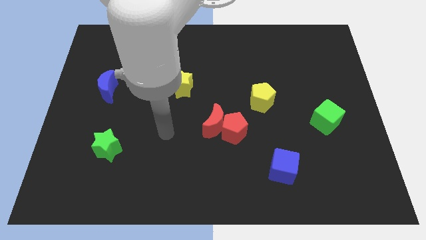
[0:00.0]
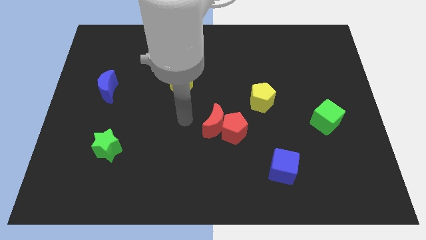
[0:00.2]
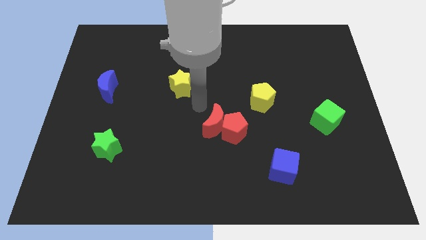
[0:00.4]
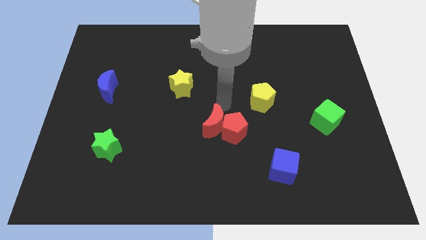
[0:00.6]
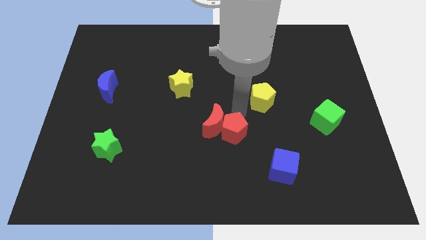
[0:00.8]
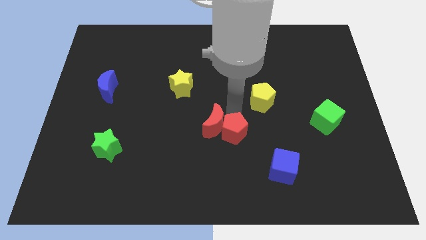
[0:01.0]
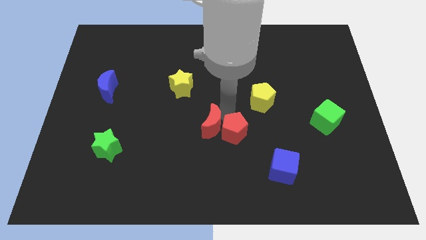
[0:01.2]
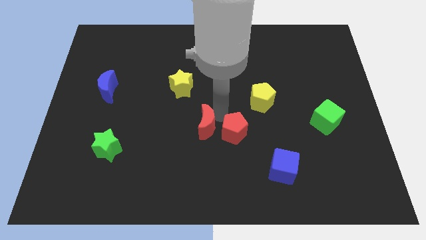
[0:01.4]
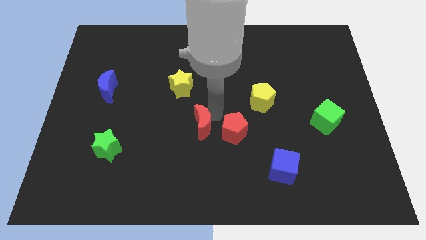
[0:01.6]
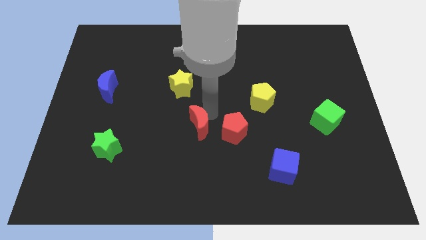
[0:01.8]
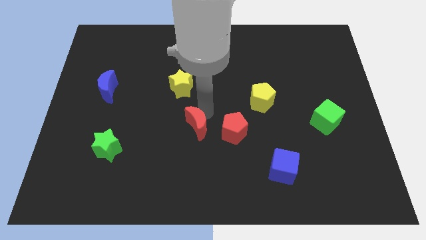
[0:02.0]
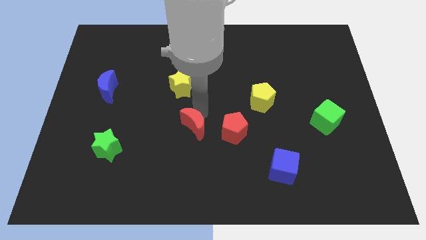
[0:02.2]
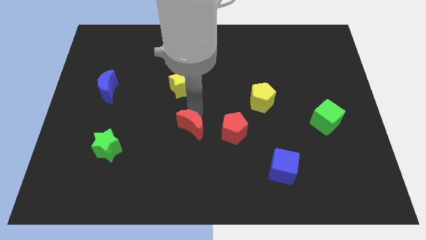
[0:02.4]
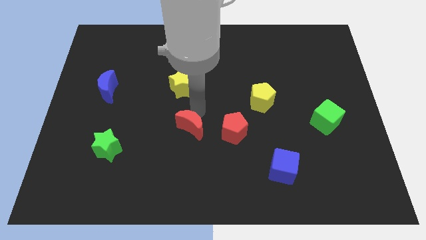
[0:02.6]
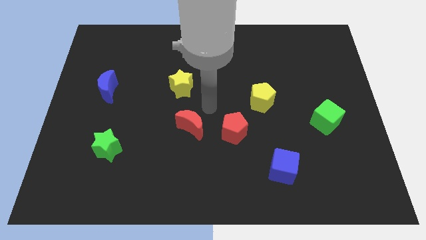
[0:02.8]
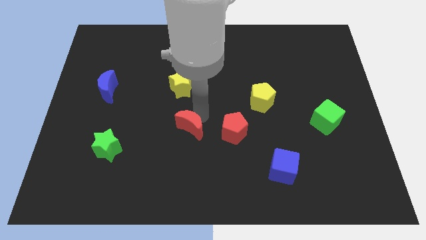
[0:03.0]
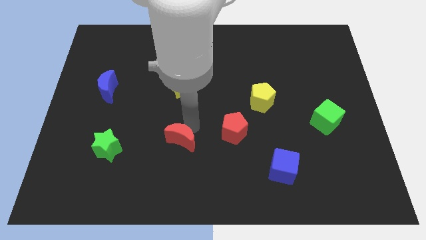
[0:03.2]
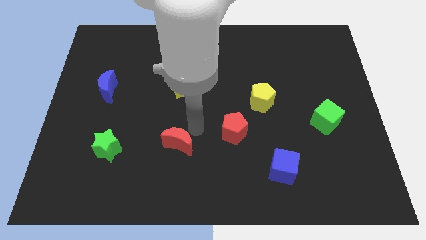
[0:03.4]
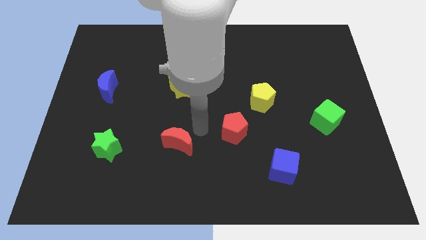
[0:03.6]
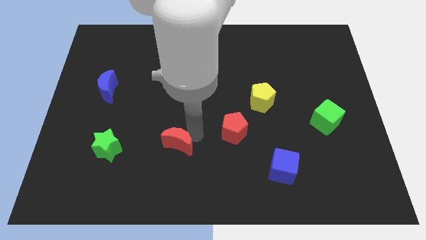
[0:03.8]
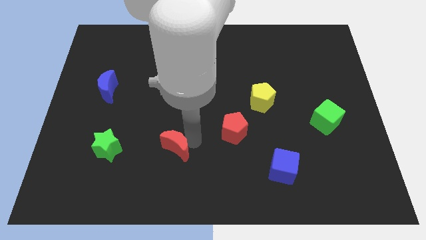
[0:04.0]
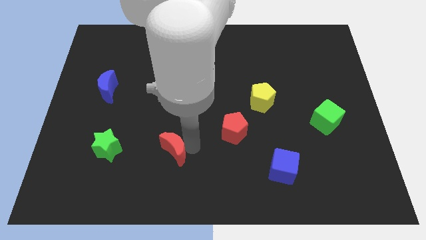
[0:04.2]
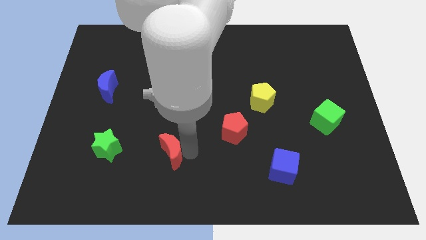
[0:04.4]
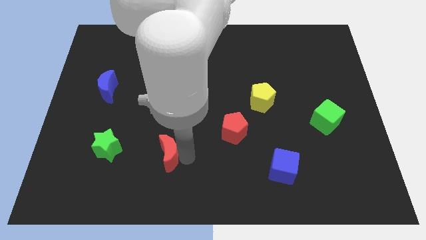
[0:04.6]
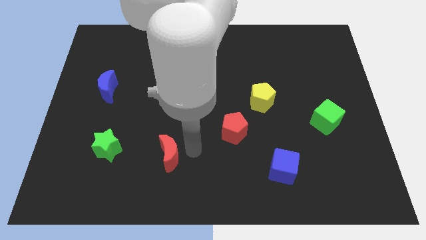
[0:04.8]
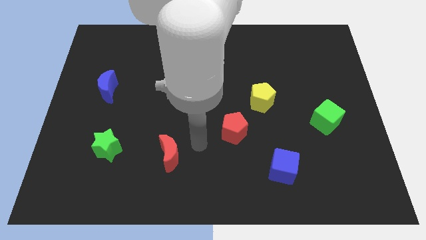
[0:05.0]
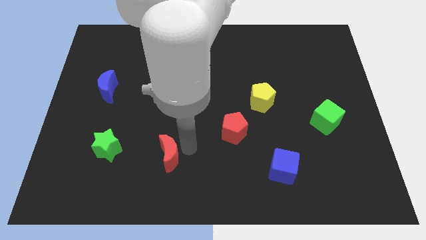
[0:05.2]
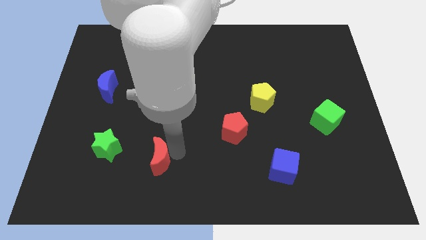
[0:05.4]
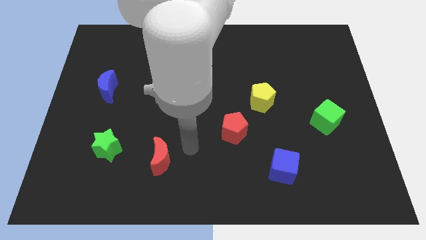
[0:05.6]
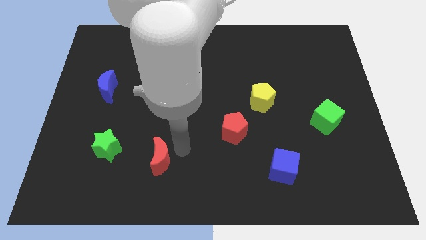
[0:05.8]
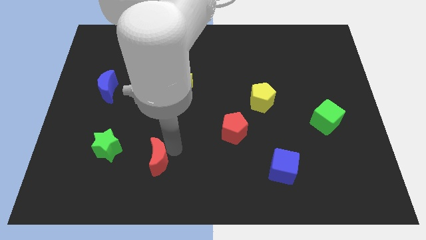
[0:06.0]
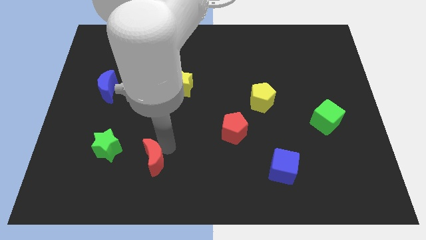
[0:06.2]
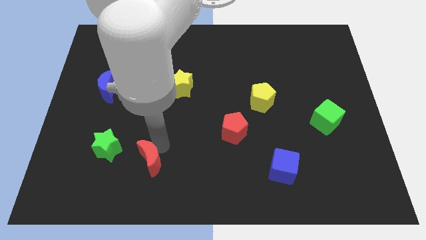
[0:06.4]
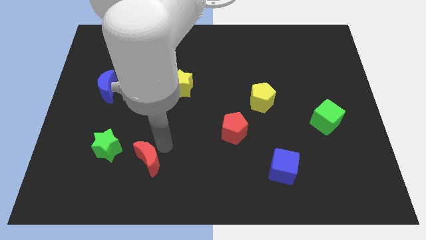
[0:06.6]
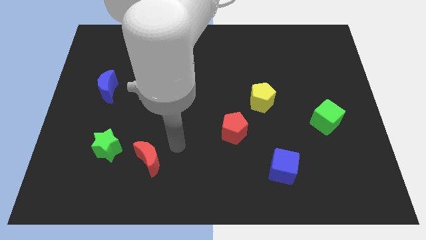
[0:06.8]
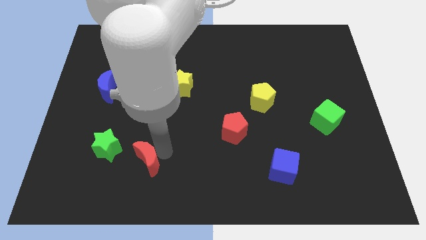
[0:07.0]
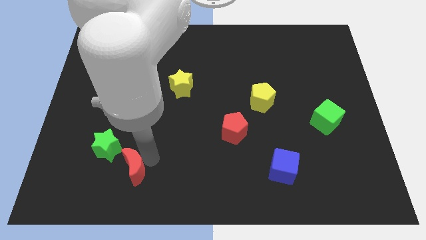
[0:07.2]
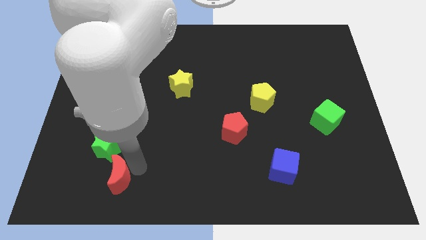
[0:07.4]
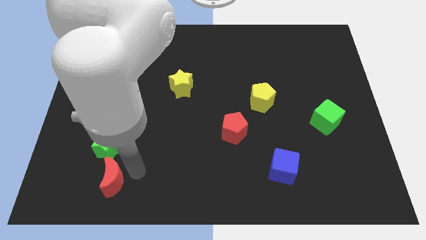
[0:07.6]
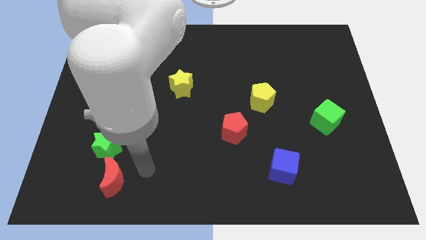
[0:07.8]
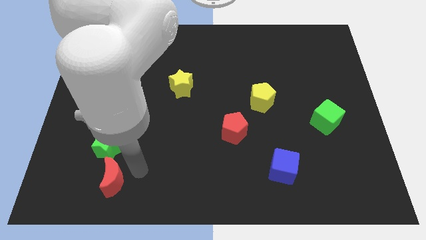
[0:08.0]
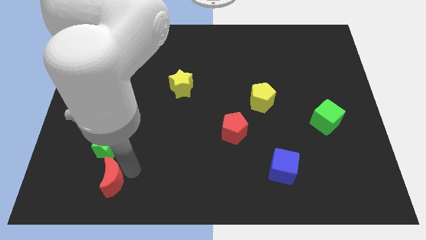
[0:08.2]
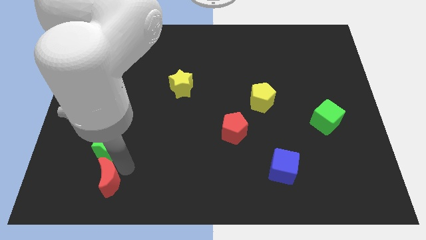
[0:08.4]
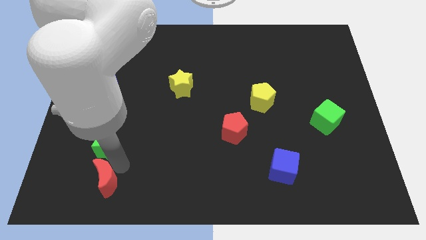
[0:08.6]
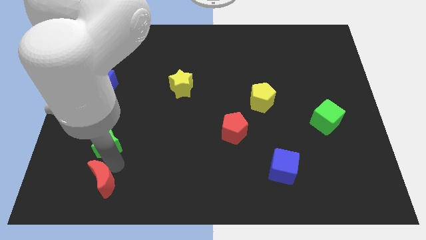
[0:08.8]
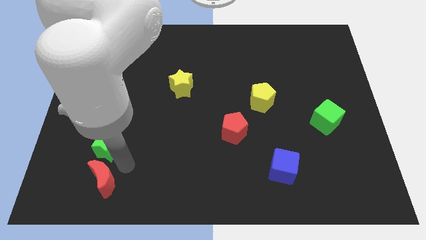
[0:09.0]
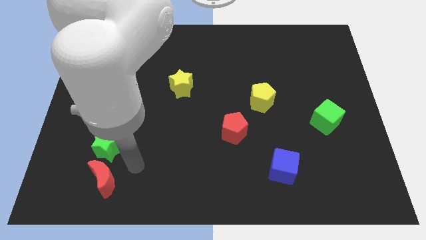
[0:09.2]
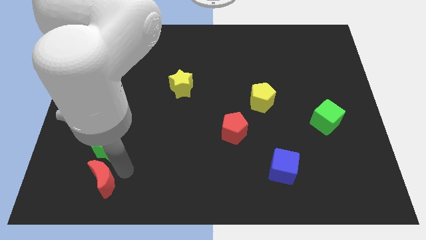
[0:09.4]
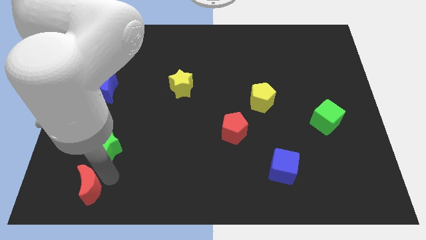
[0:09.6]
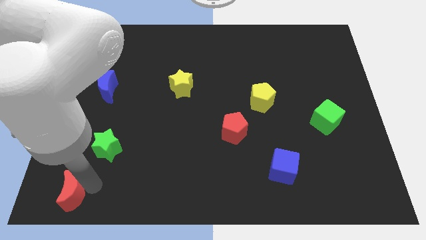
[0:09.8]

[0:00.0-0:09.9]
slide the red moon to the lower left corner
